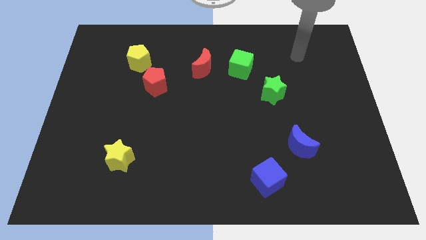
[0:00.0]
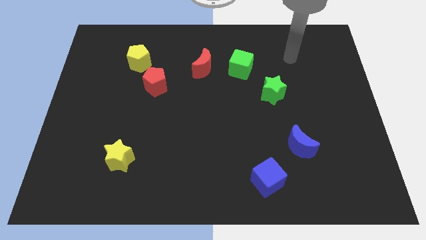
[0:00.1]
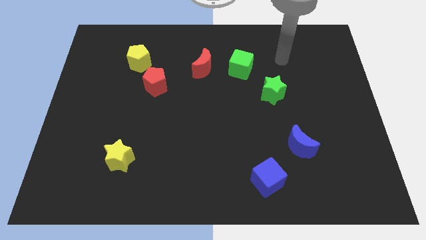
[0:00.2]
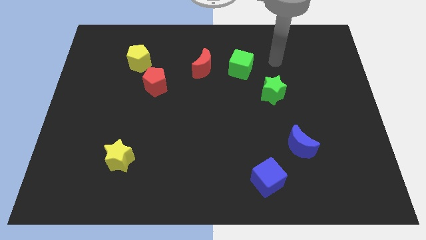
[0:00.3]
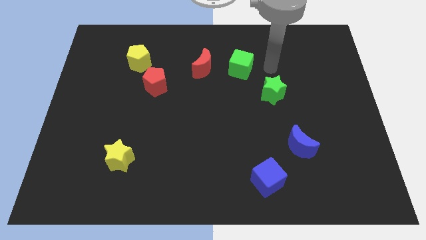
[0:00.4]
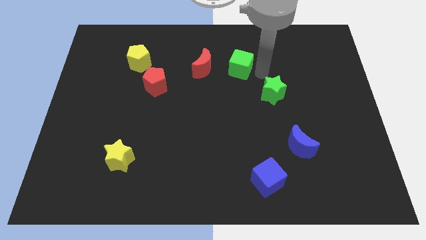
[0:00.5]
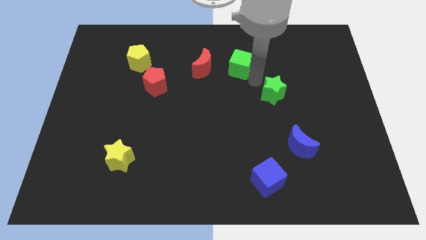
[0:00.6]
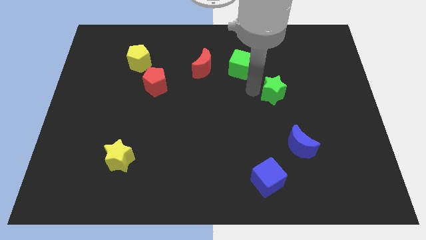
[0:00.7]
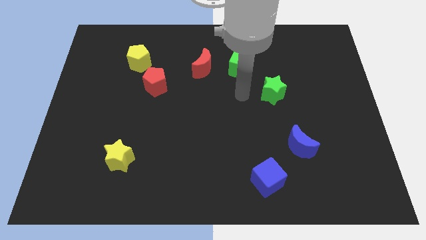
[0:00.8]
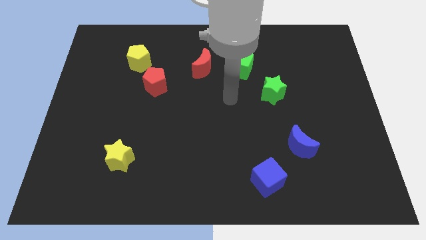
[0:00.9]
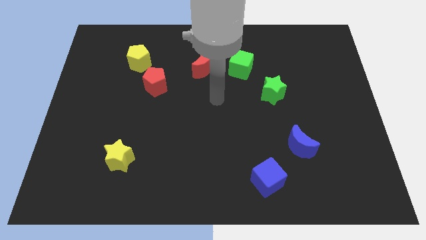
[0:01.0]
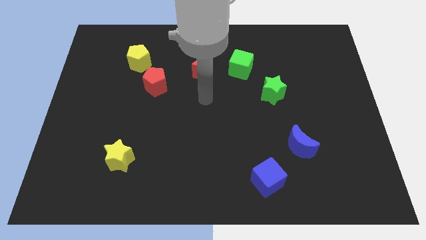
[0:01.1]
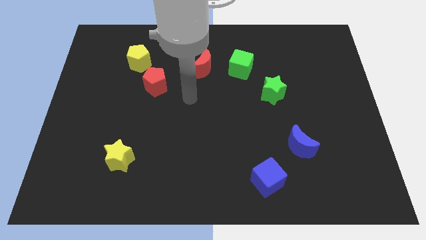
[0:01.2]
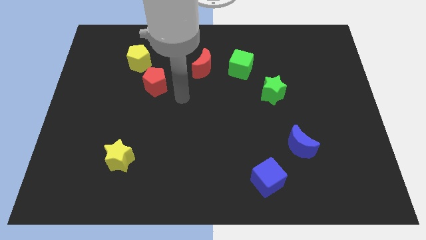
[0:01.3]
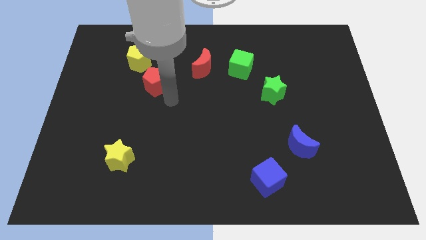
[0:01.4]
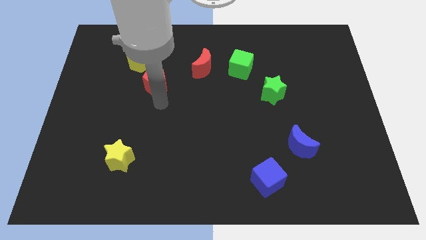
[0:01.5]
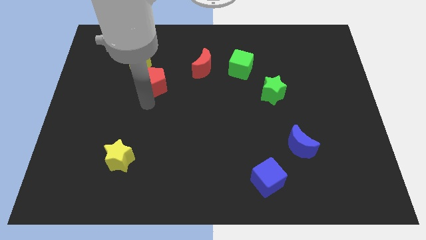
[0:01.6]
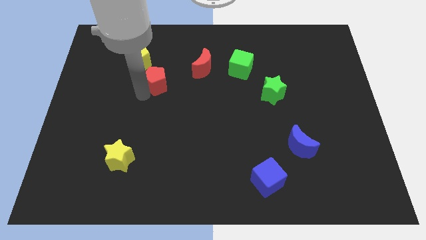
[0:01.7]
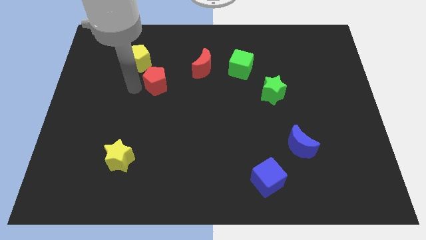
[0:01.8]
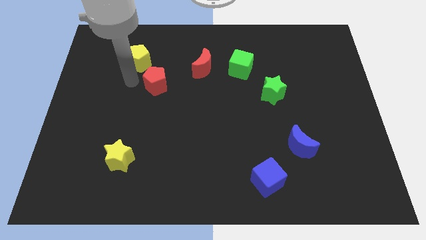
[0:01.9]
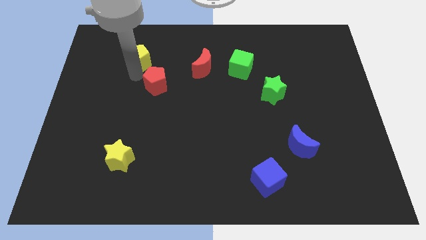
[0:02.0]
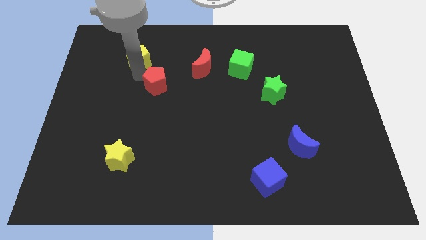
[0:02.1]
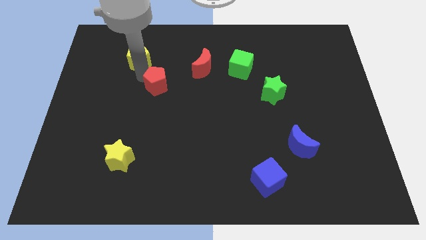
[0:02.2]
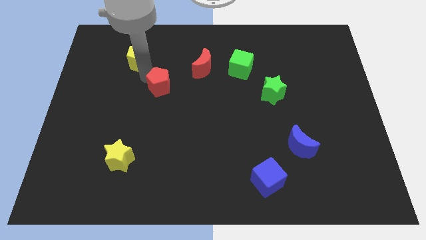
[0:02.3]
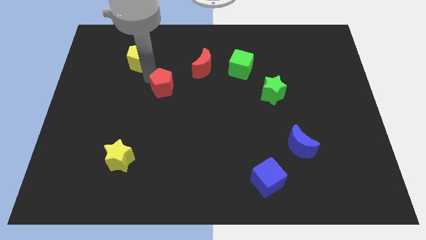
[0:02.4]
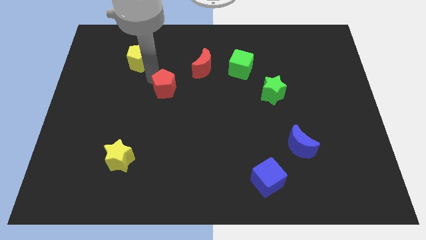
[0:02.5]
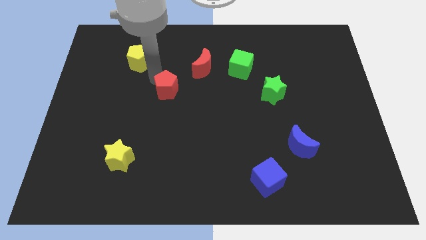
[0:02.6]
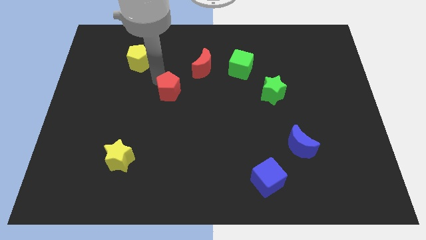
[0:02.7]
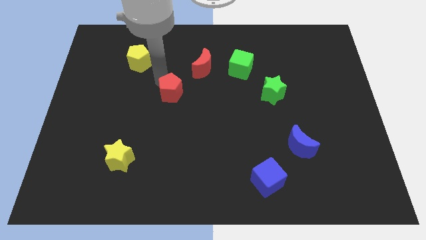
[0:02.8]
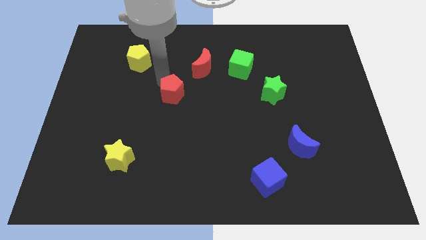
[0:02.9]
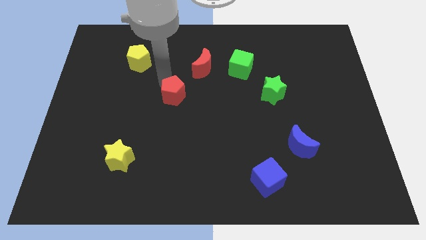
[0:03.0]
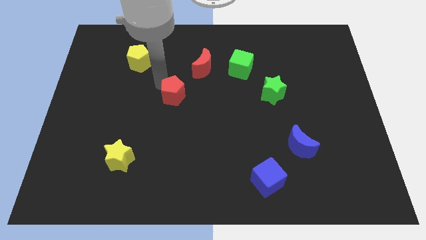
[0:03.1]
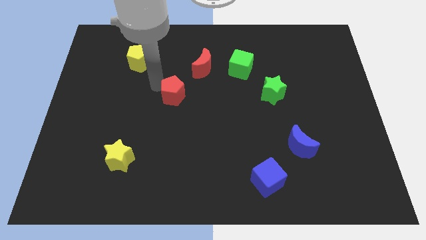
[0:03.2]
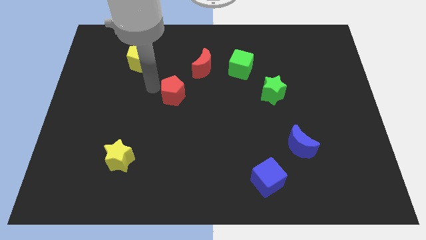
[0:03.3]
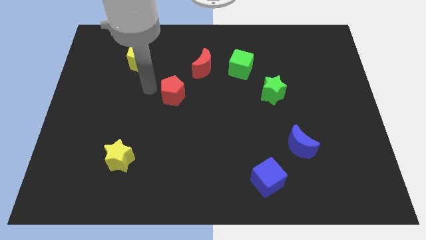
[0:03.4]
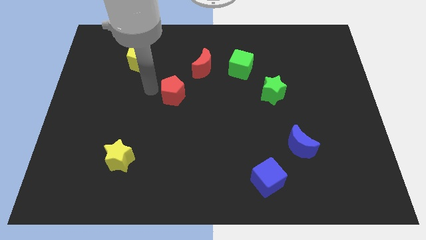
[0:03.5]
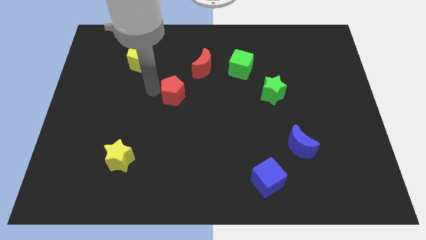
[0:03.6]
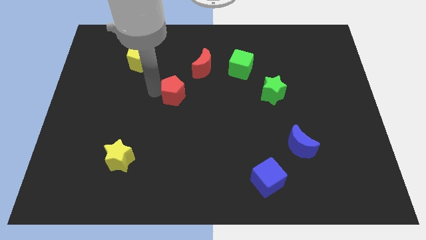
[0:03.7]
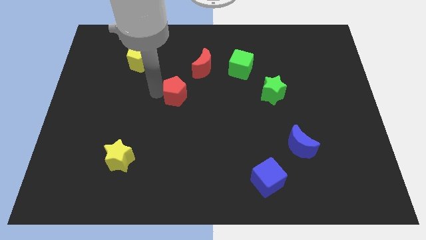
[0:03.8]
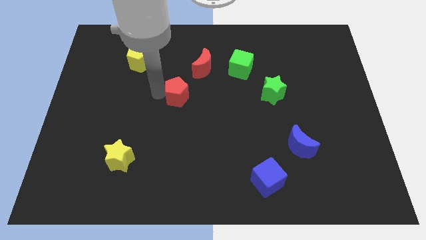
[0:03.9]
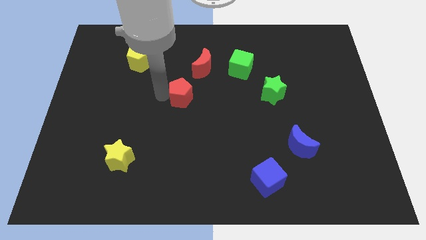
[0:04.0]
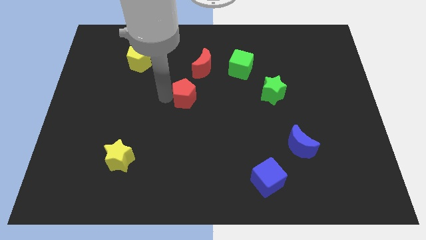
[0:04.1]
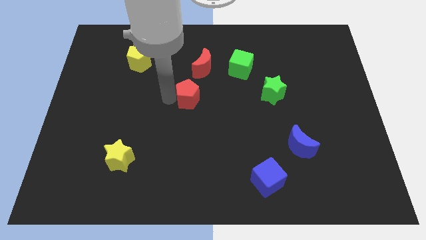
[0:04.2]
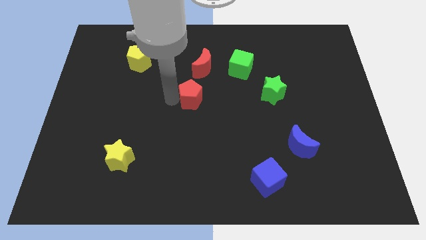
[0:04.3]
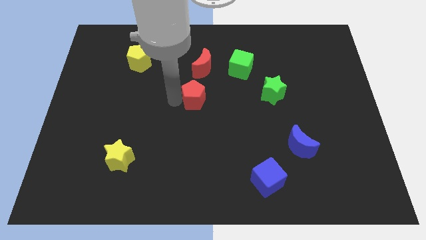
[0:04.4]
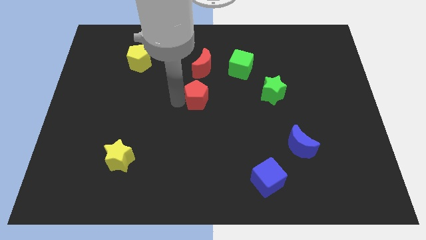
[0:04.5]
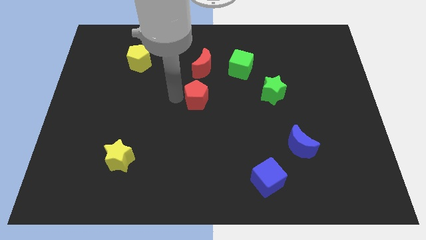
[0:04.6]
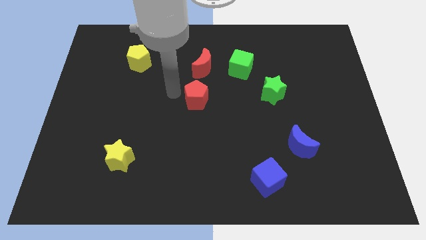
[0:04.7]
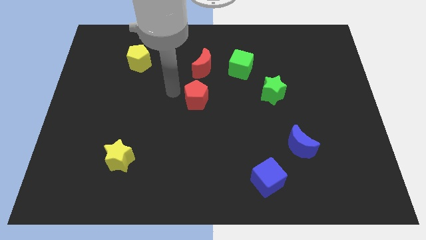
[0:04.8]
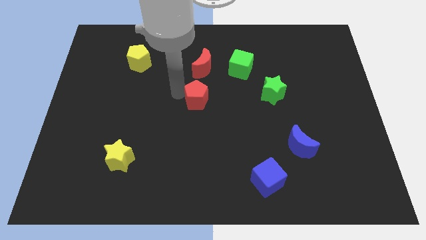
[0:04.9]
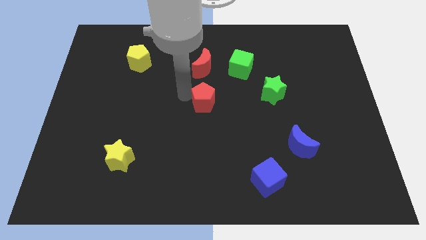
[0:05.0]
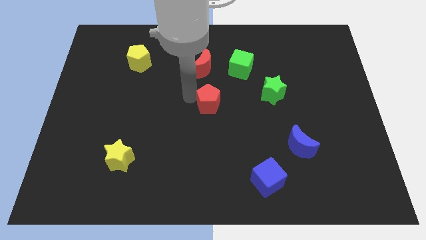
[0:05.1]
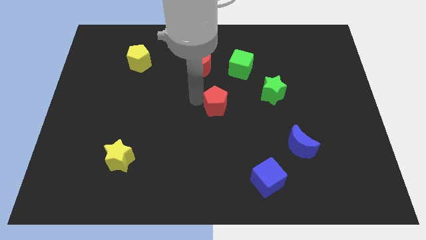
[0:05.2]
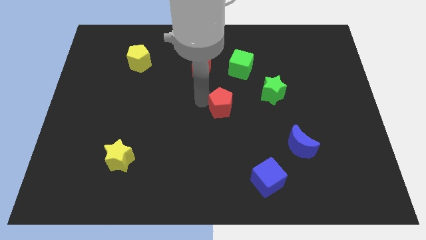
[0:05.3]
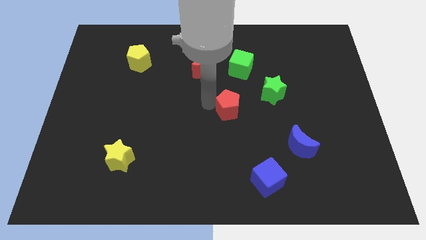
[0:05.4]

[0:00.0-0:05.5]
move the red pentagon to the bottom left side of the green star

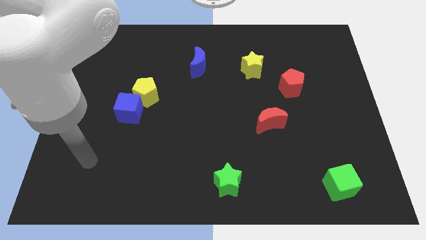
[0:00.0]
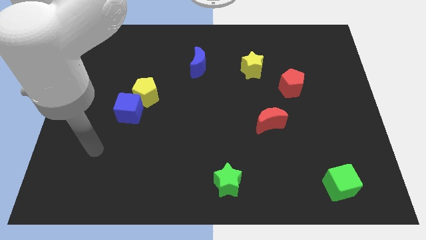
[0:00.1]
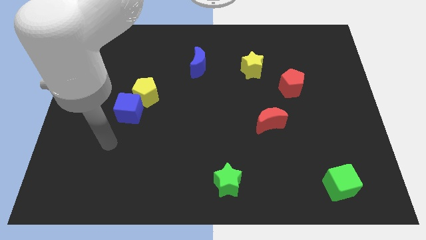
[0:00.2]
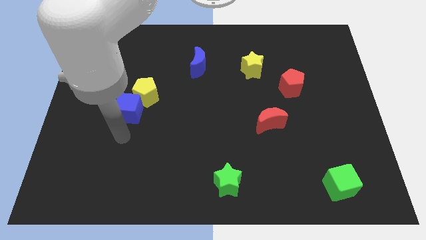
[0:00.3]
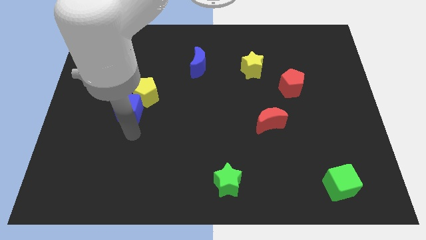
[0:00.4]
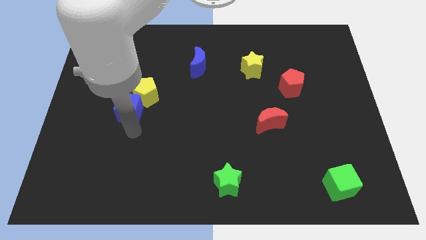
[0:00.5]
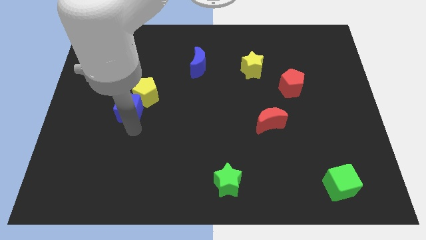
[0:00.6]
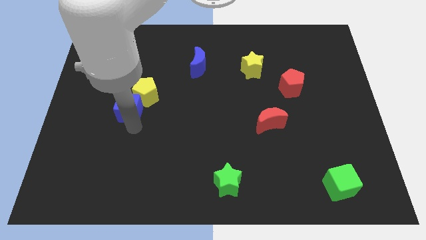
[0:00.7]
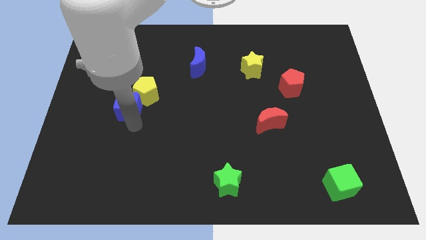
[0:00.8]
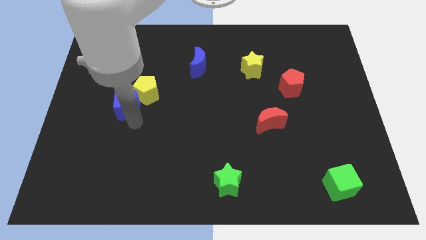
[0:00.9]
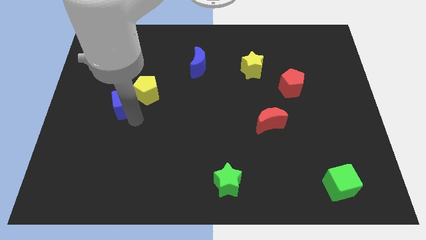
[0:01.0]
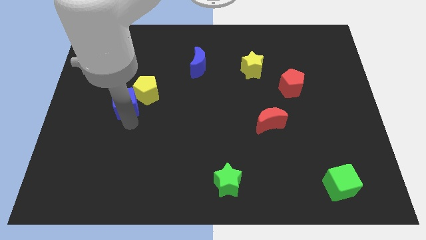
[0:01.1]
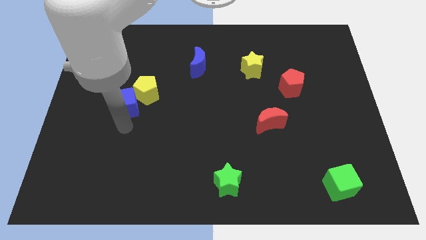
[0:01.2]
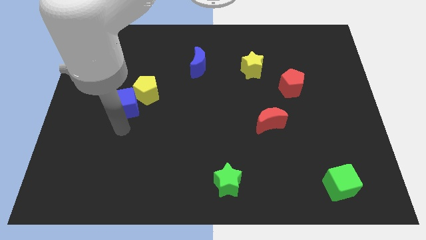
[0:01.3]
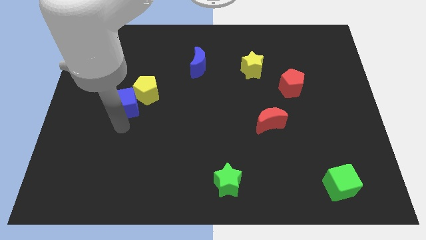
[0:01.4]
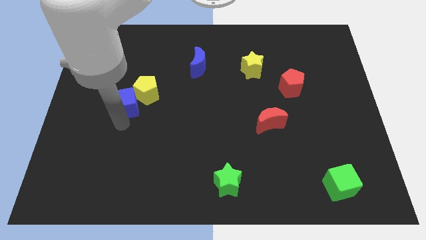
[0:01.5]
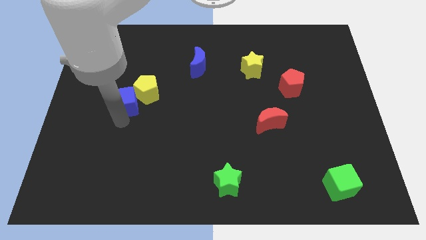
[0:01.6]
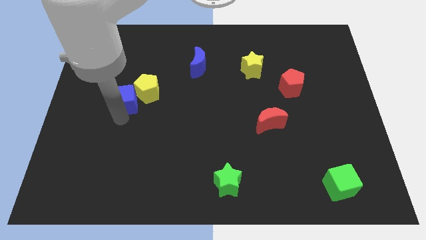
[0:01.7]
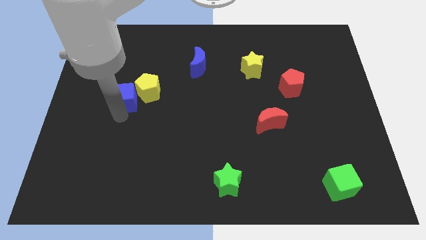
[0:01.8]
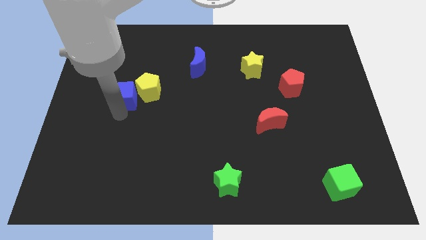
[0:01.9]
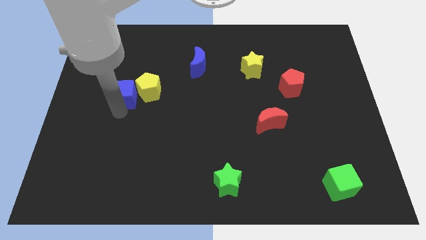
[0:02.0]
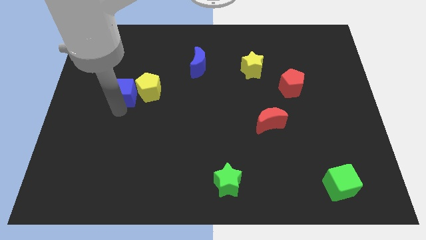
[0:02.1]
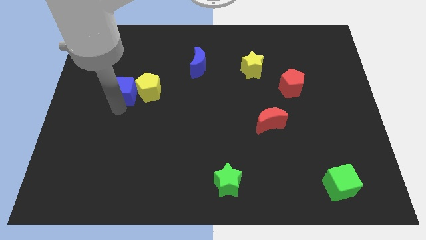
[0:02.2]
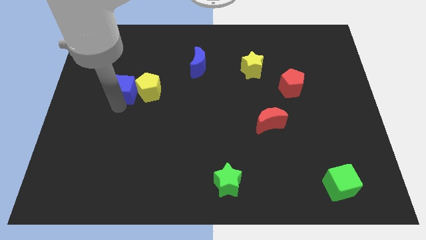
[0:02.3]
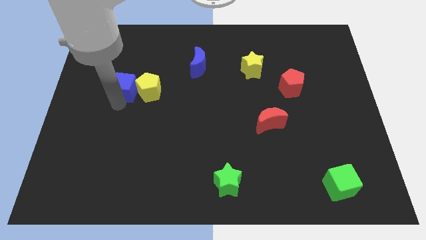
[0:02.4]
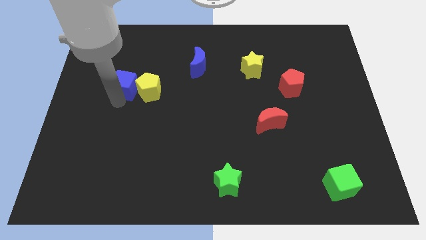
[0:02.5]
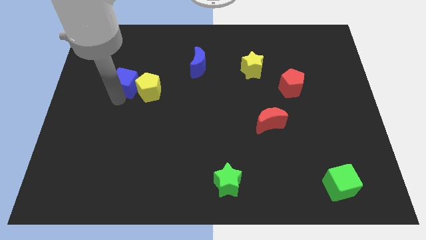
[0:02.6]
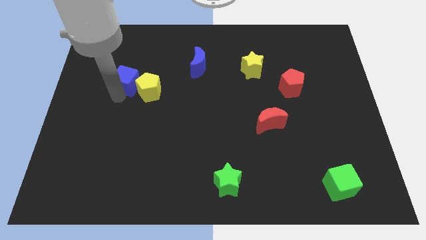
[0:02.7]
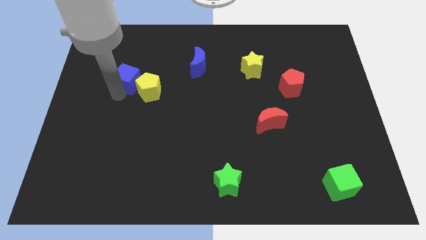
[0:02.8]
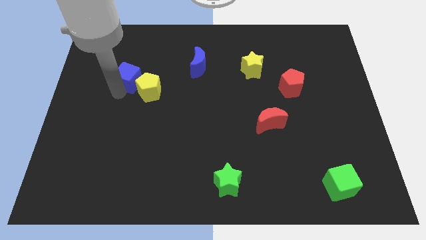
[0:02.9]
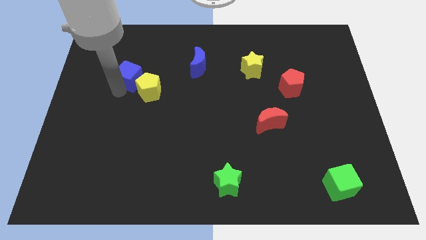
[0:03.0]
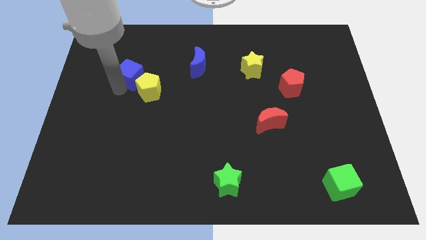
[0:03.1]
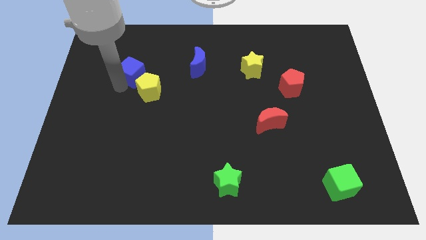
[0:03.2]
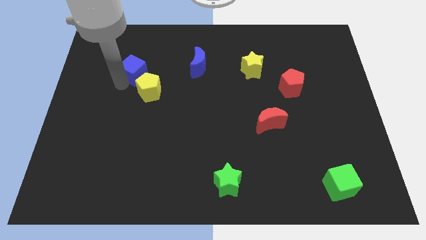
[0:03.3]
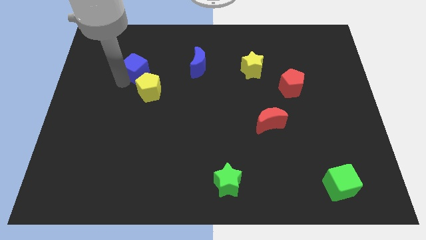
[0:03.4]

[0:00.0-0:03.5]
move the blue cube left of the blue moon
